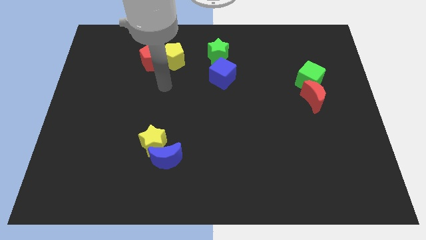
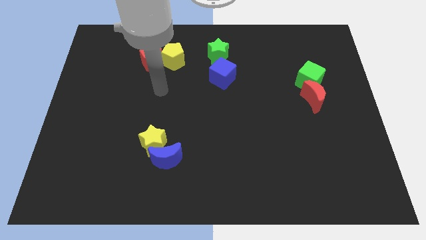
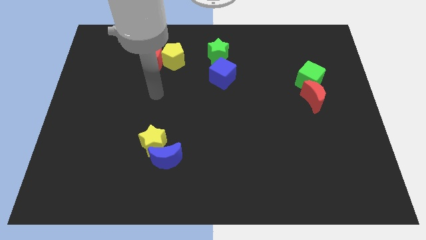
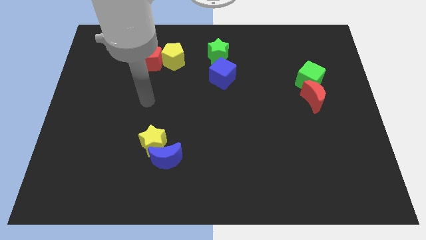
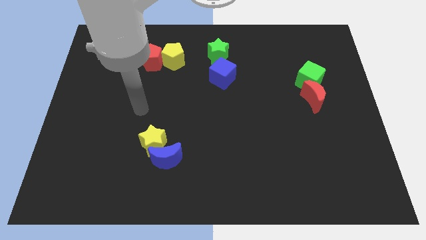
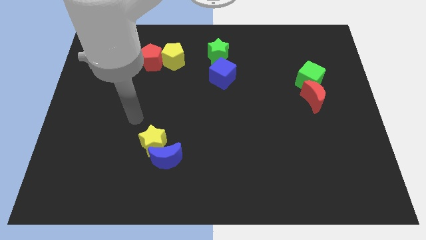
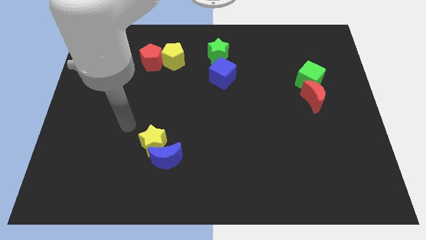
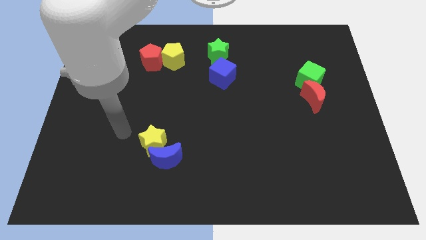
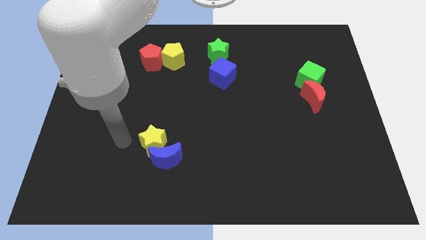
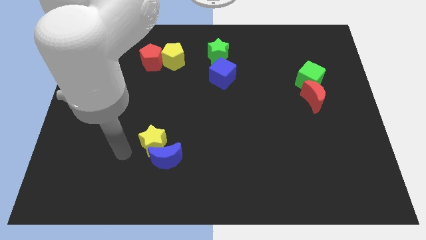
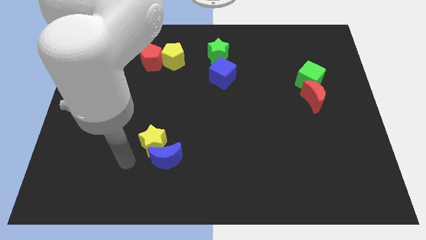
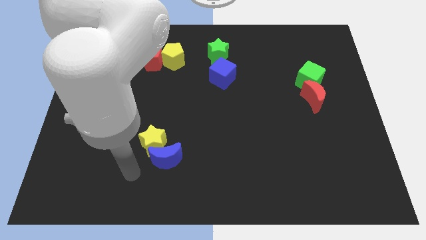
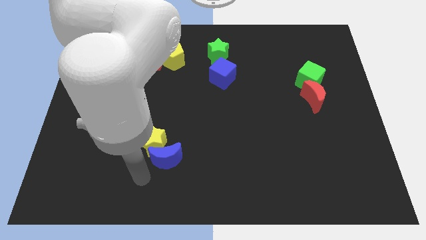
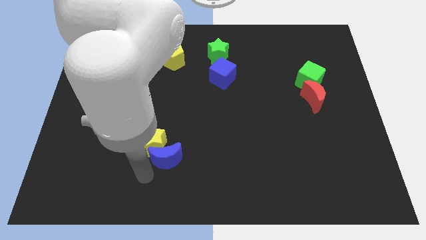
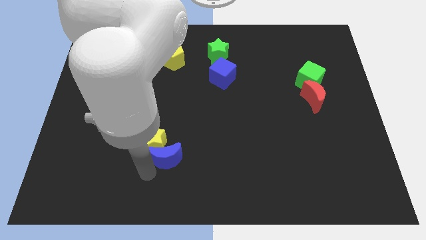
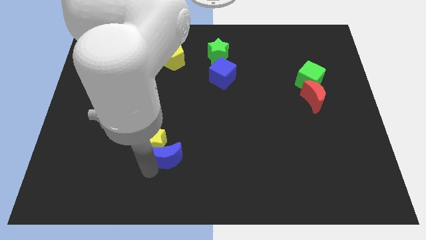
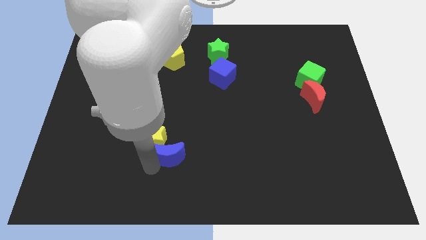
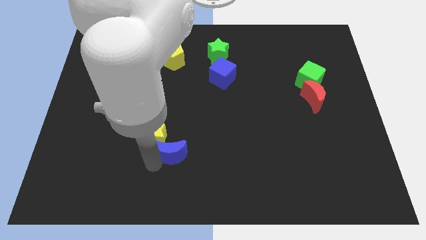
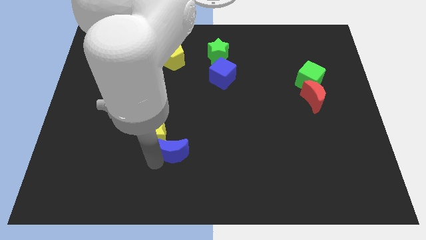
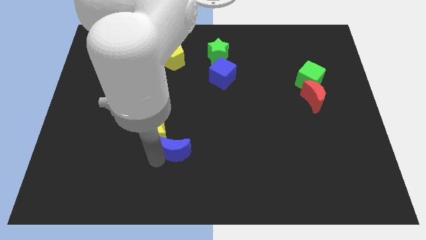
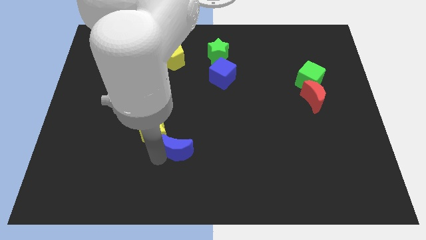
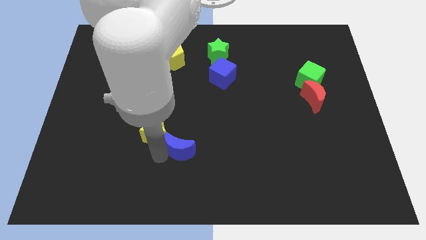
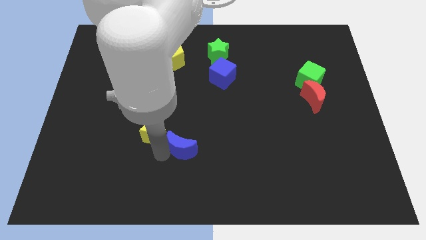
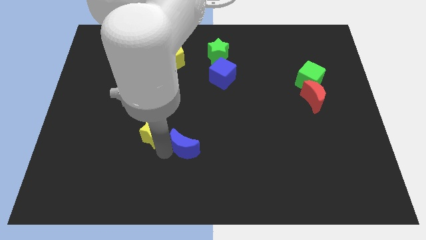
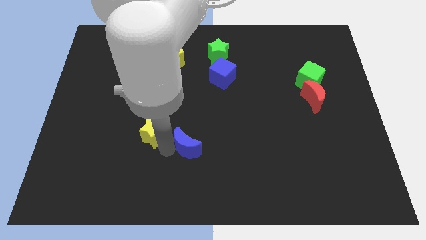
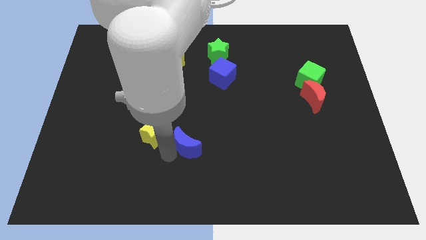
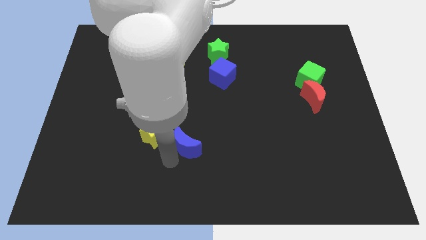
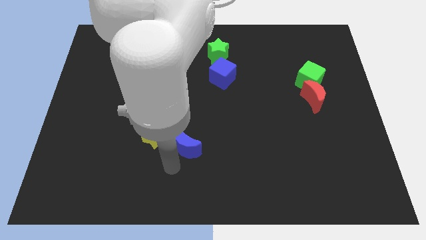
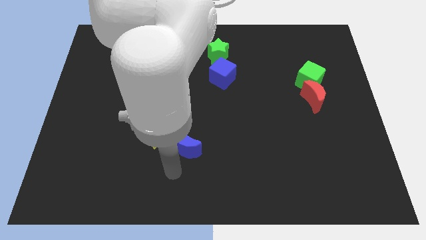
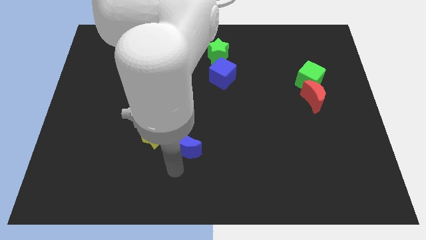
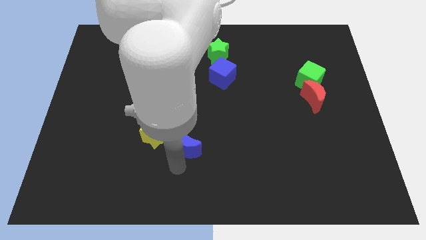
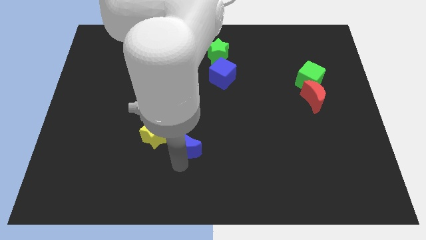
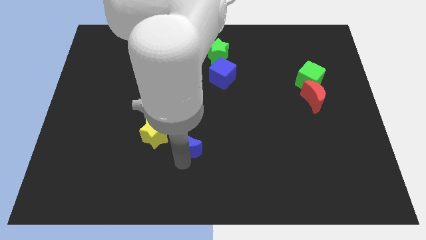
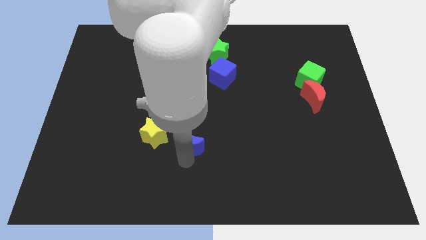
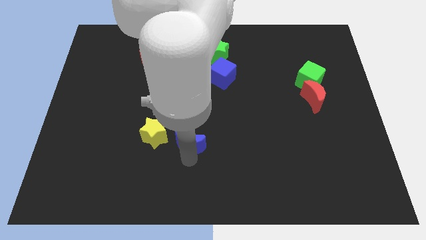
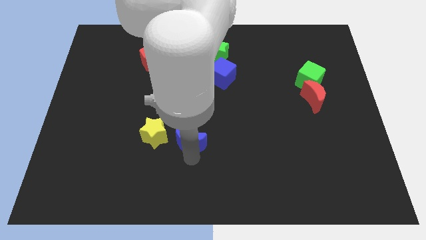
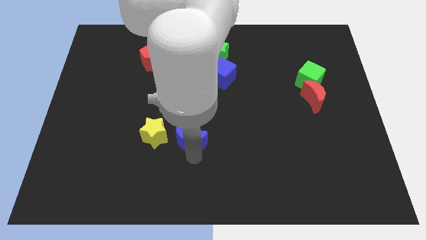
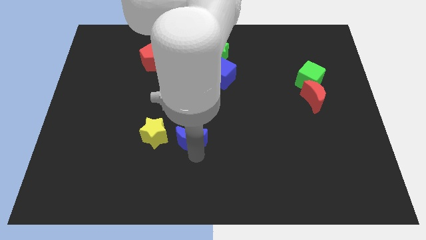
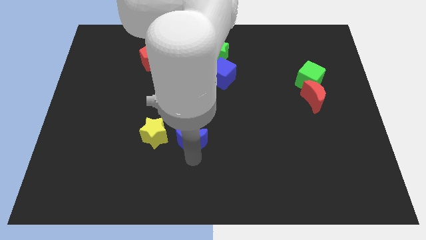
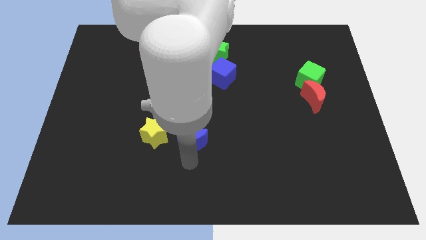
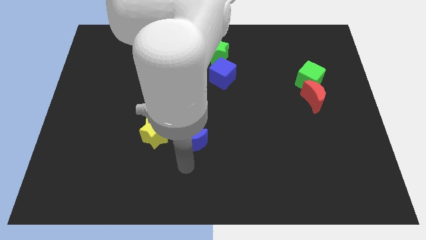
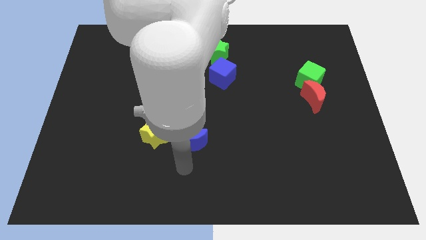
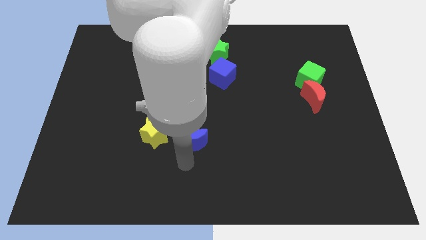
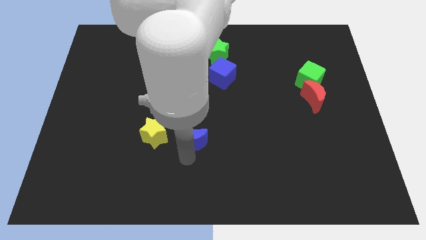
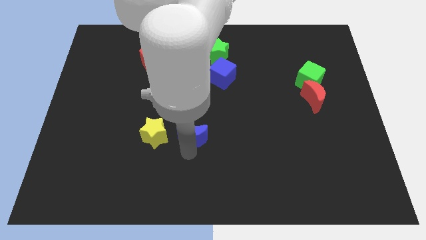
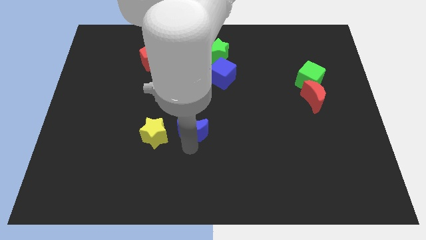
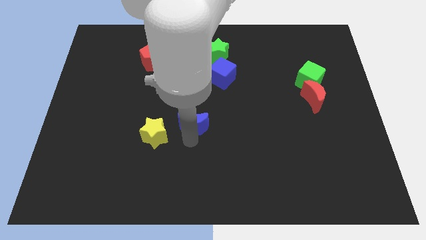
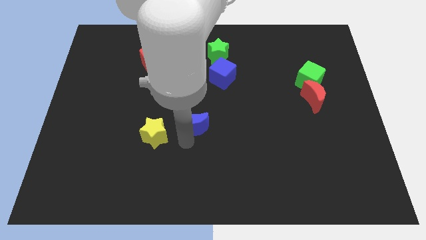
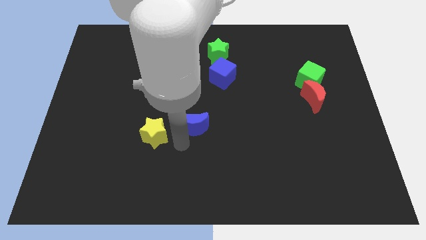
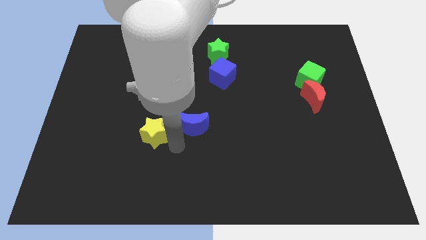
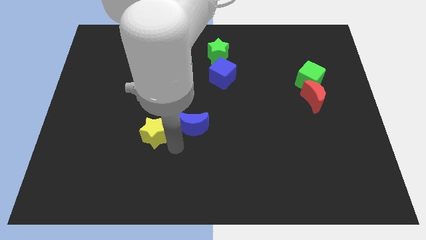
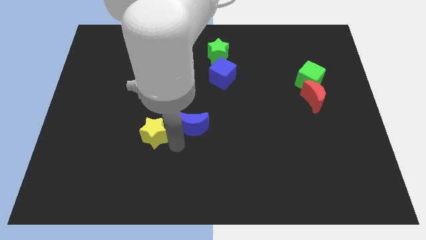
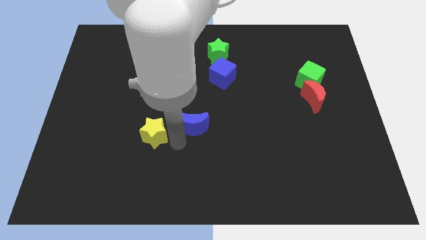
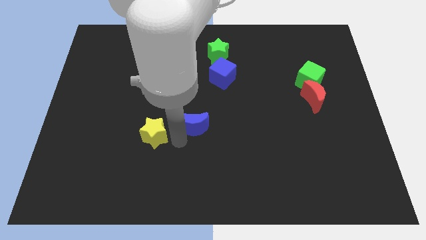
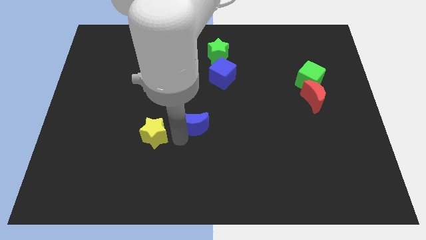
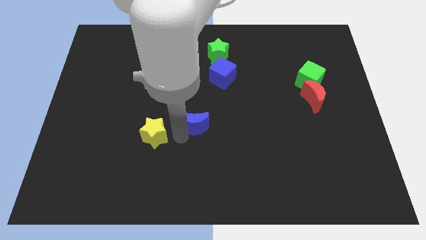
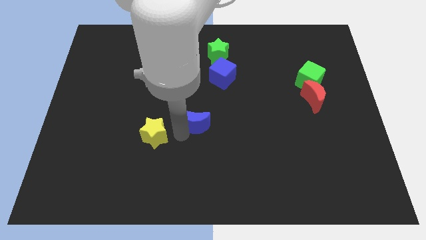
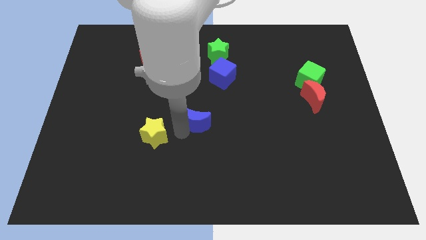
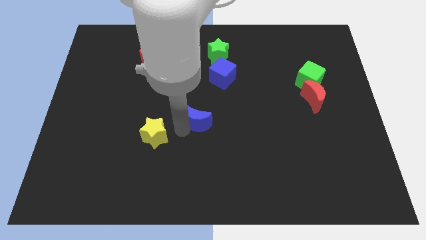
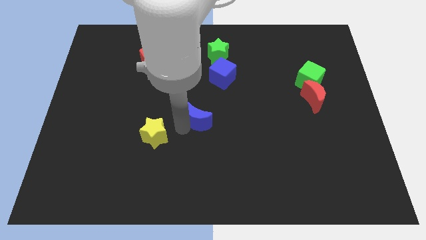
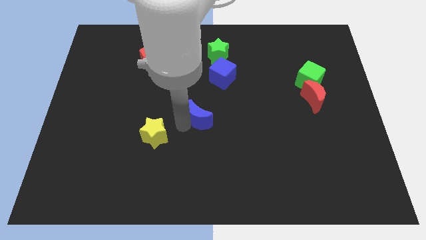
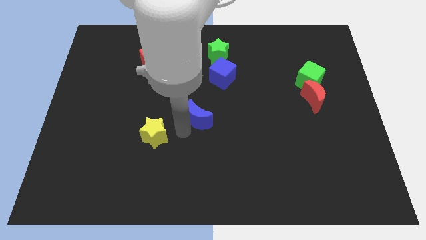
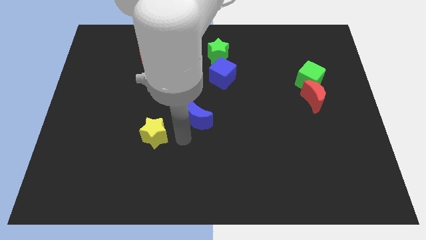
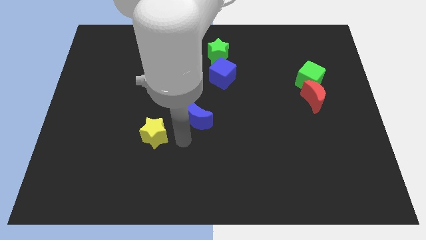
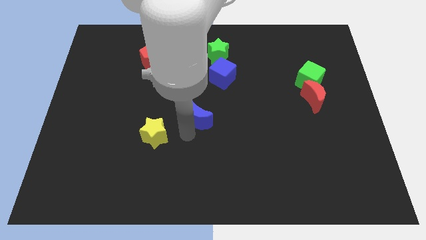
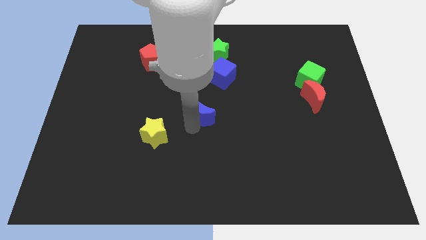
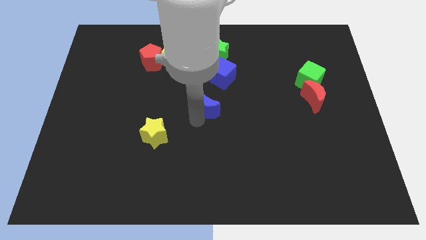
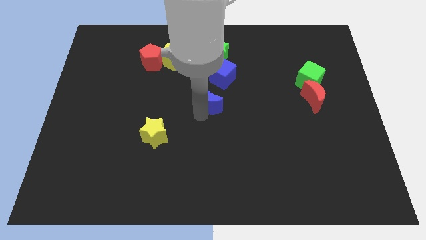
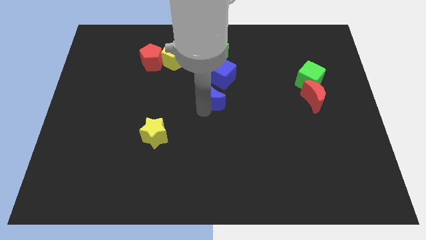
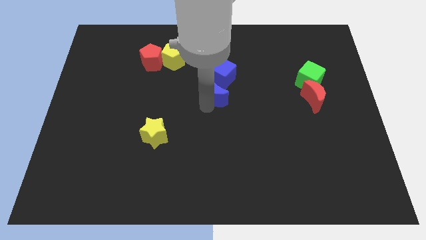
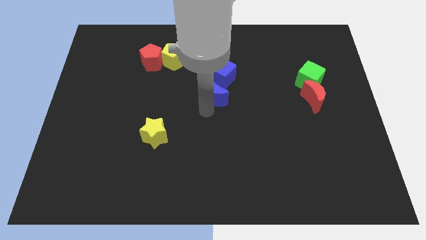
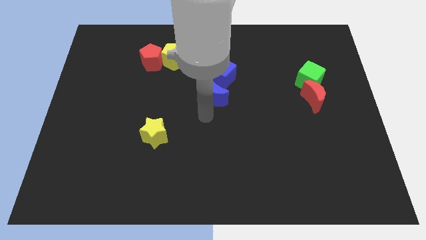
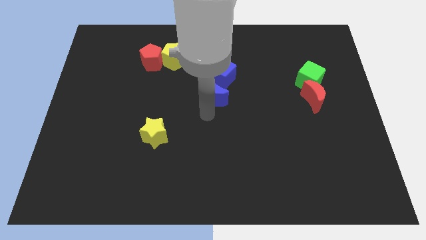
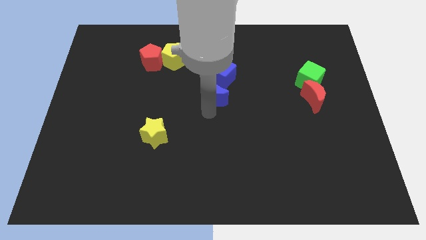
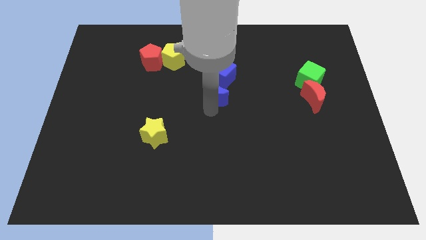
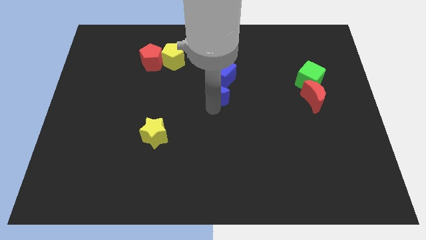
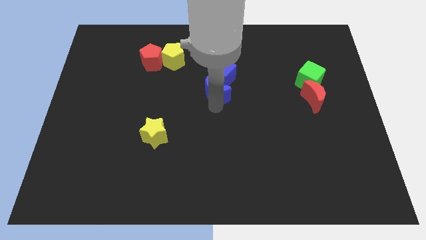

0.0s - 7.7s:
put the blue moon close to the blue cube
